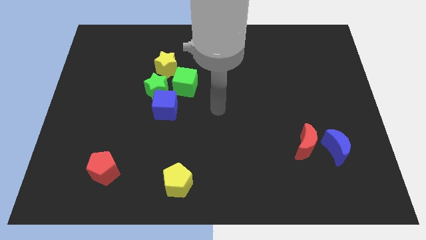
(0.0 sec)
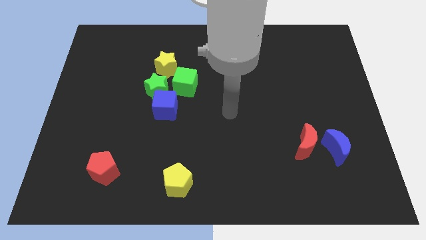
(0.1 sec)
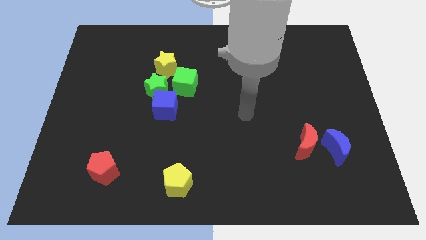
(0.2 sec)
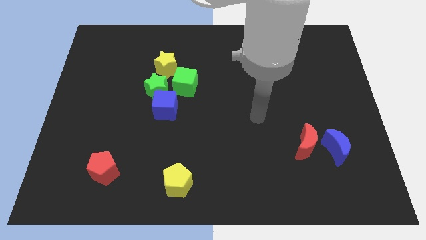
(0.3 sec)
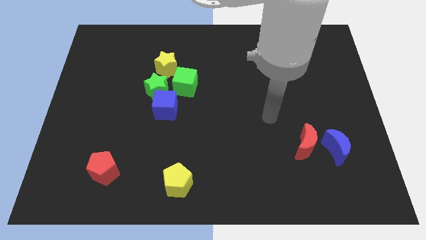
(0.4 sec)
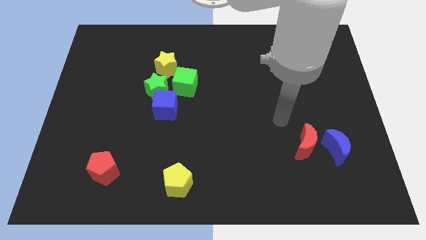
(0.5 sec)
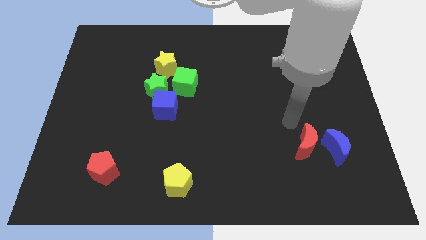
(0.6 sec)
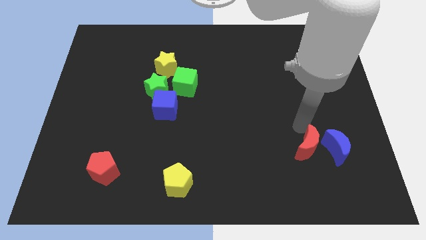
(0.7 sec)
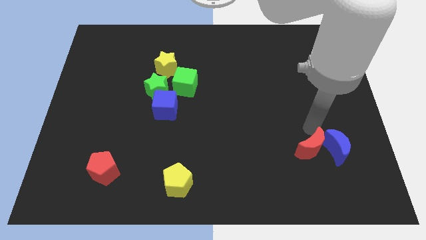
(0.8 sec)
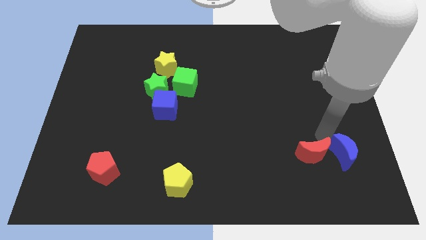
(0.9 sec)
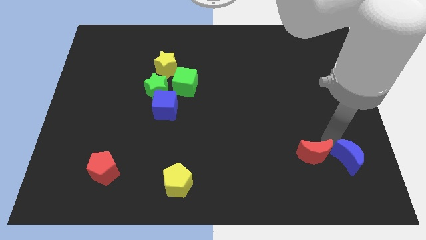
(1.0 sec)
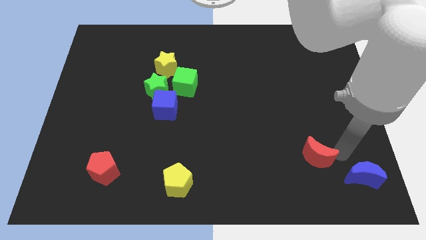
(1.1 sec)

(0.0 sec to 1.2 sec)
move the red moon away from the blue moon

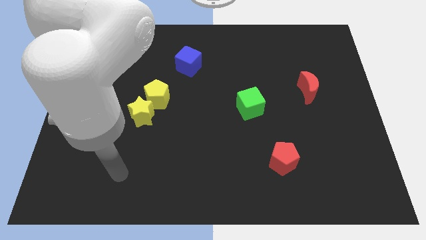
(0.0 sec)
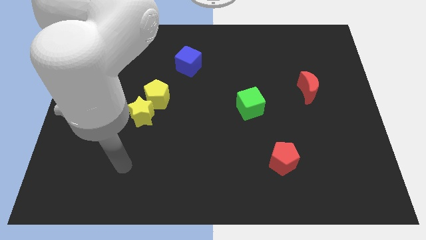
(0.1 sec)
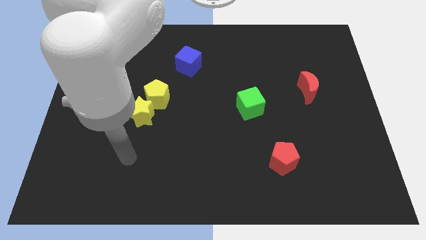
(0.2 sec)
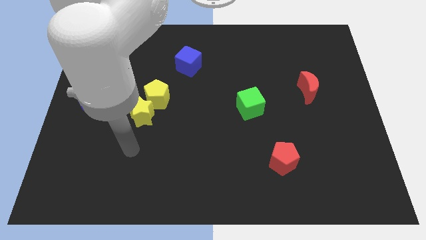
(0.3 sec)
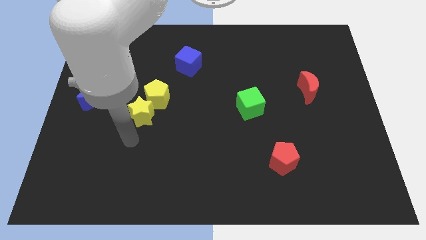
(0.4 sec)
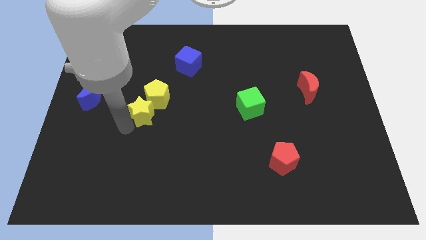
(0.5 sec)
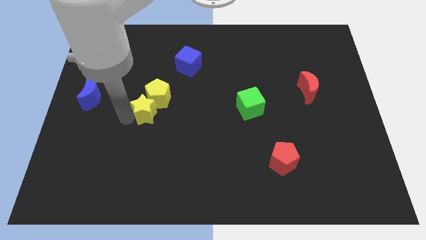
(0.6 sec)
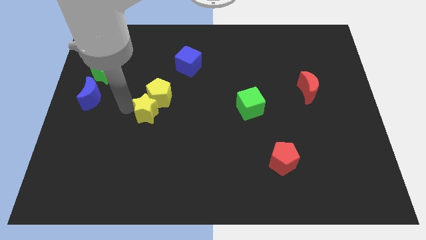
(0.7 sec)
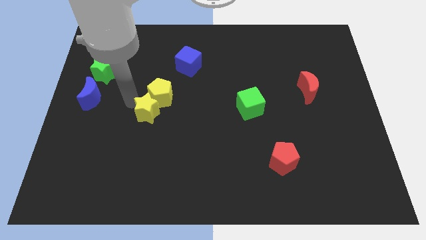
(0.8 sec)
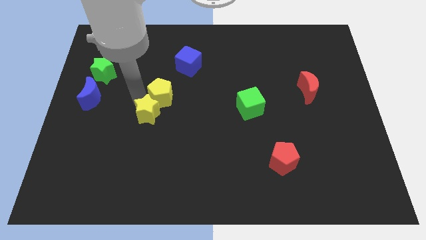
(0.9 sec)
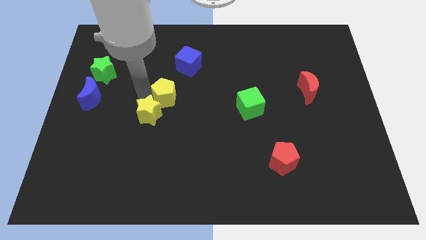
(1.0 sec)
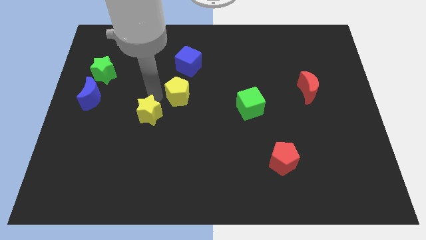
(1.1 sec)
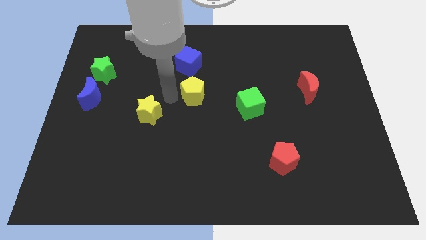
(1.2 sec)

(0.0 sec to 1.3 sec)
pull the yellow star apart from the yellow pentagon

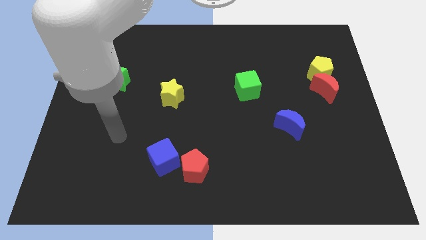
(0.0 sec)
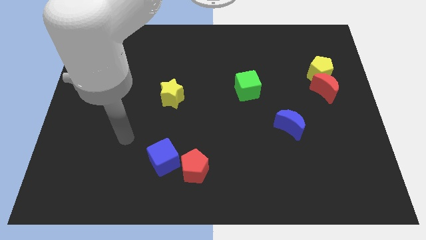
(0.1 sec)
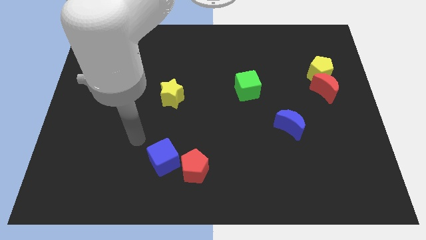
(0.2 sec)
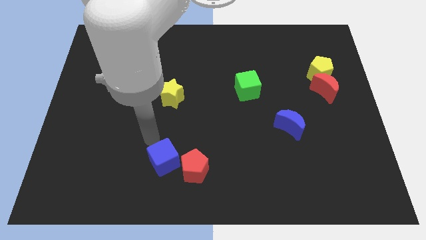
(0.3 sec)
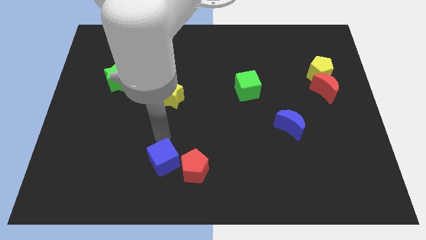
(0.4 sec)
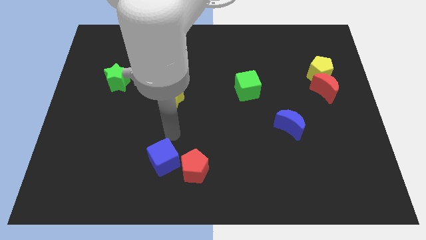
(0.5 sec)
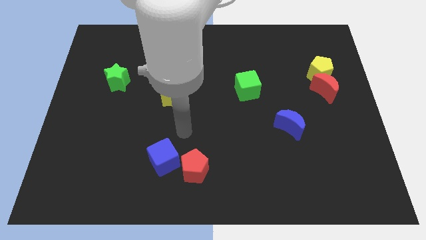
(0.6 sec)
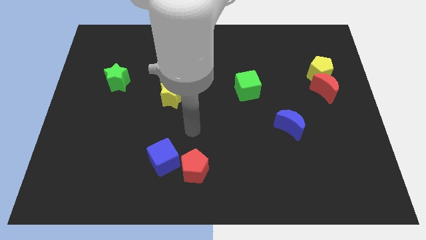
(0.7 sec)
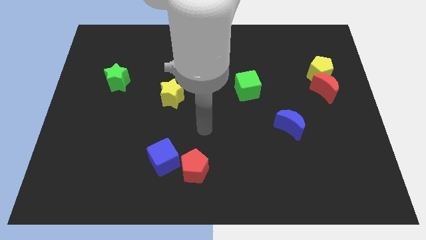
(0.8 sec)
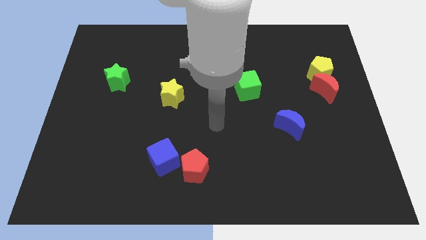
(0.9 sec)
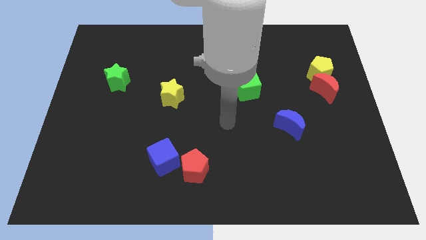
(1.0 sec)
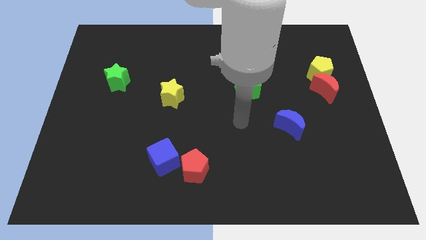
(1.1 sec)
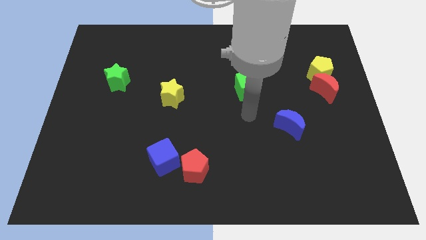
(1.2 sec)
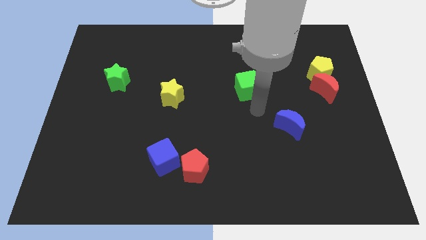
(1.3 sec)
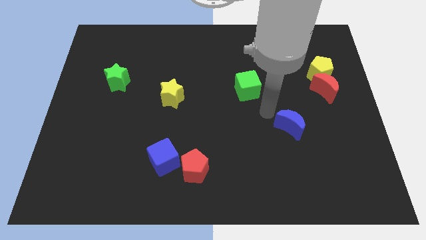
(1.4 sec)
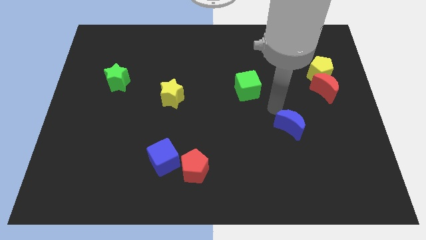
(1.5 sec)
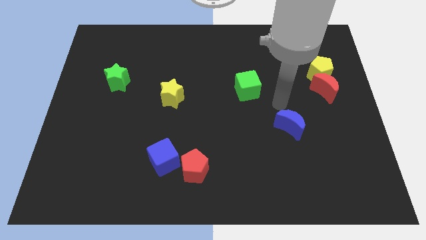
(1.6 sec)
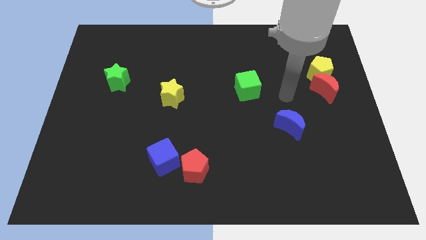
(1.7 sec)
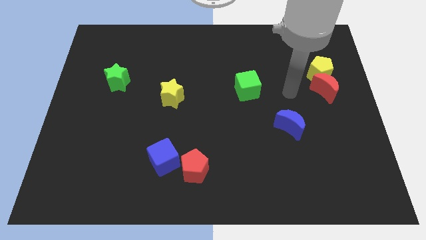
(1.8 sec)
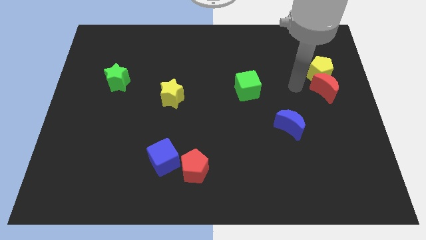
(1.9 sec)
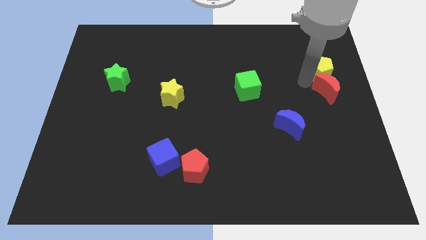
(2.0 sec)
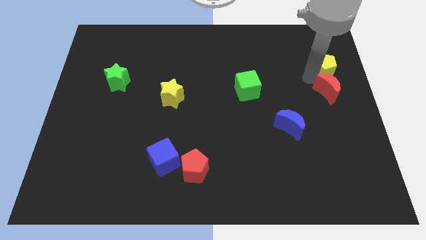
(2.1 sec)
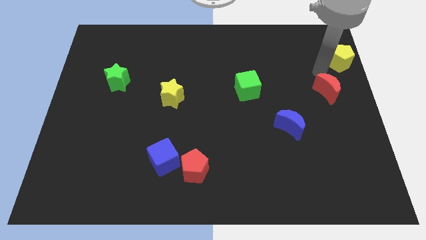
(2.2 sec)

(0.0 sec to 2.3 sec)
pull the red moon apart from the yellow pentagon

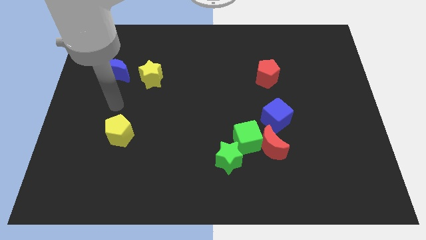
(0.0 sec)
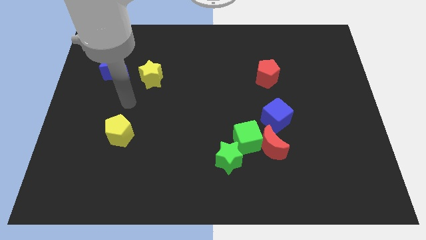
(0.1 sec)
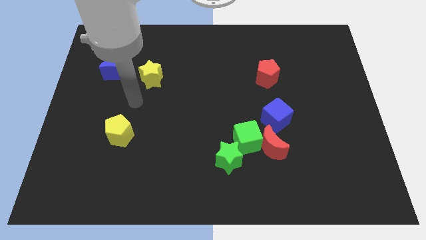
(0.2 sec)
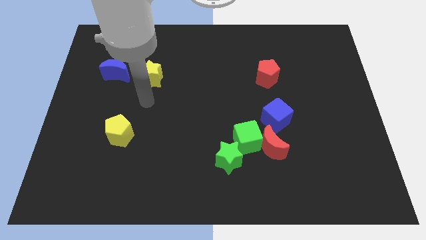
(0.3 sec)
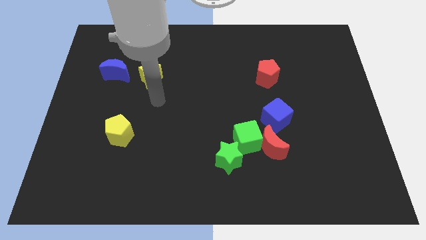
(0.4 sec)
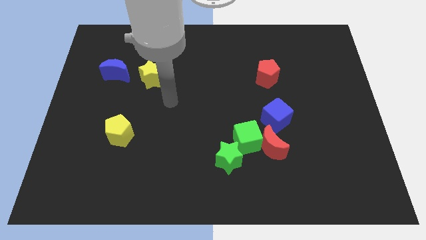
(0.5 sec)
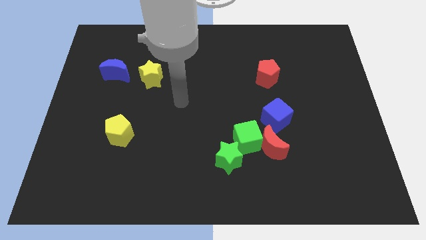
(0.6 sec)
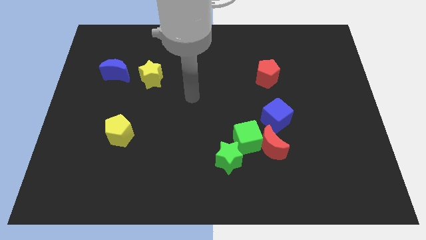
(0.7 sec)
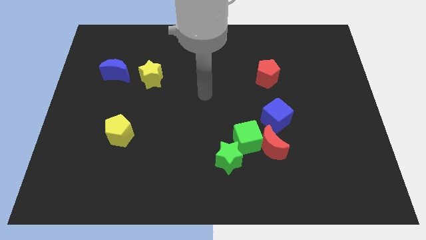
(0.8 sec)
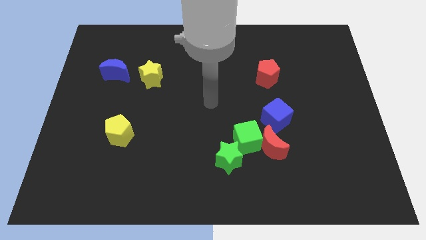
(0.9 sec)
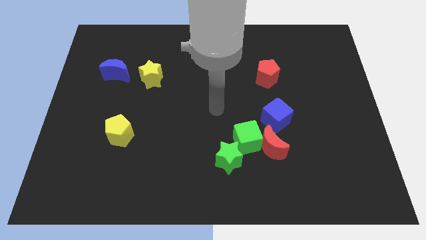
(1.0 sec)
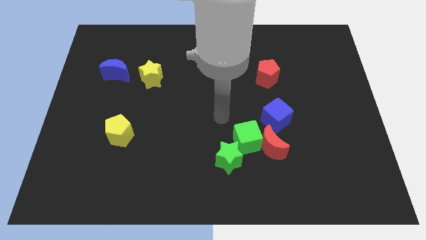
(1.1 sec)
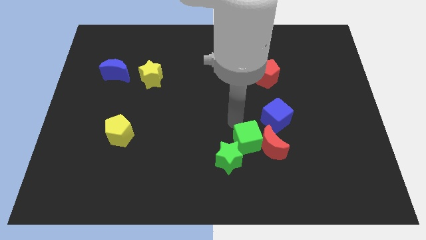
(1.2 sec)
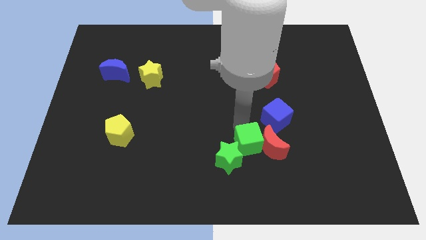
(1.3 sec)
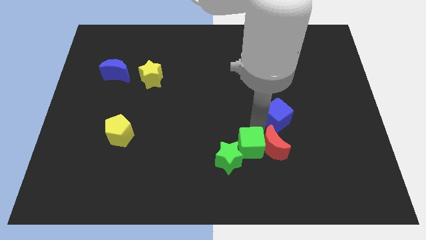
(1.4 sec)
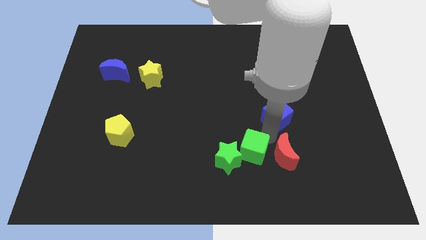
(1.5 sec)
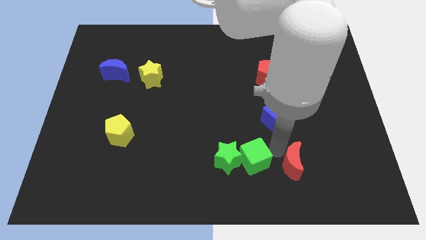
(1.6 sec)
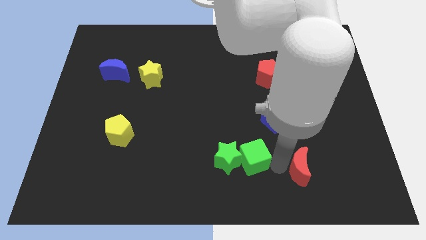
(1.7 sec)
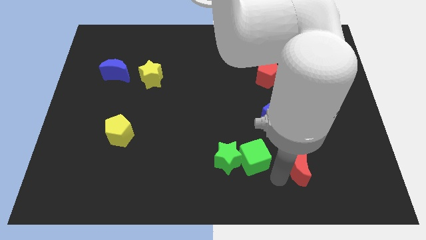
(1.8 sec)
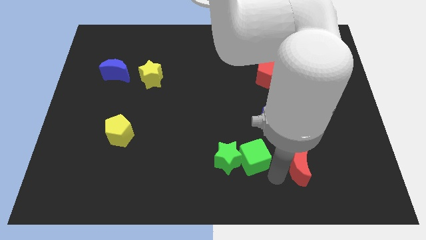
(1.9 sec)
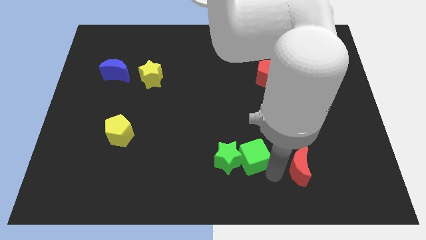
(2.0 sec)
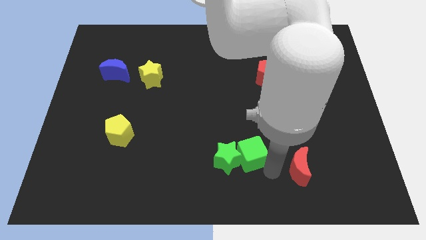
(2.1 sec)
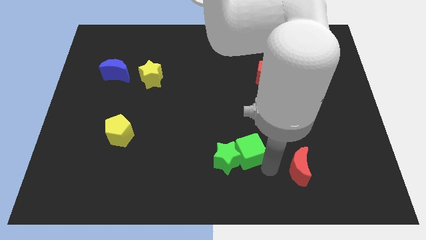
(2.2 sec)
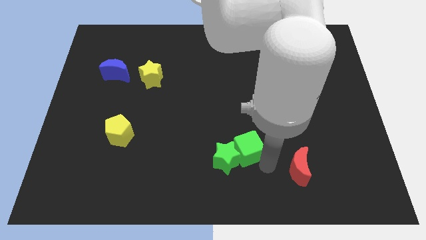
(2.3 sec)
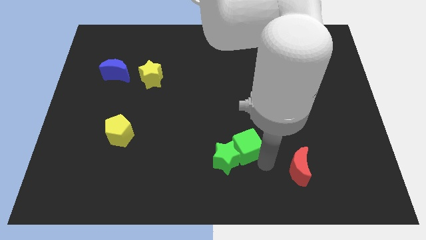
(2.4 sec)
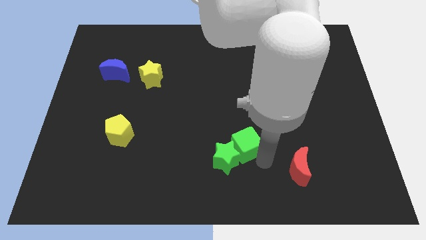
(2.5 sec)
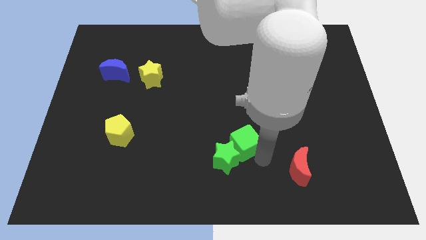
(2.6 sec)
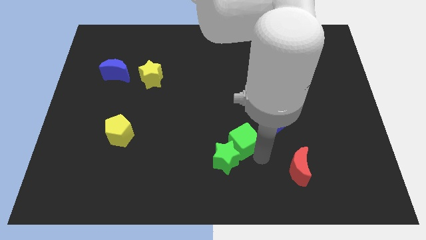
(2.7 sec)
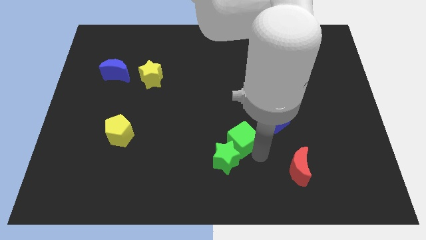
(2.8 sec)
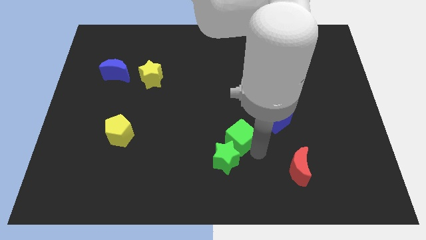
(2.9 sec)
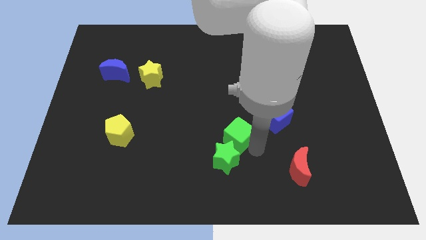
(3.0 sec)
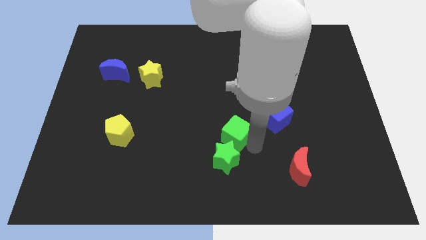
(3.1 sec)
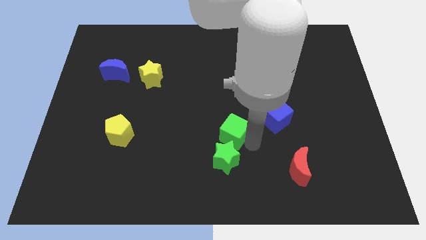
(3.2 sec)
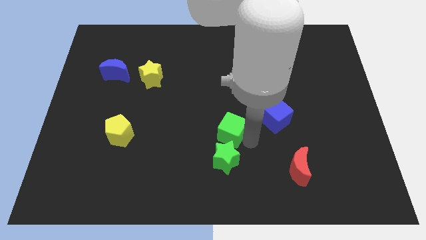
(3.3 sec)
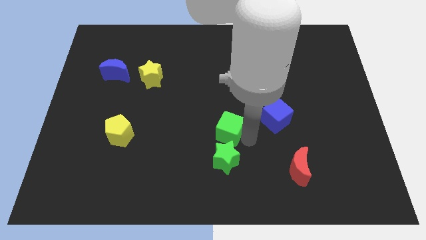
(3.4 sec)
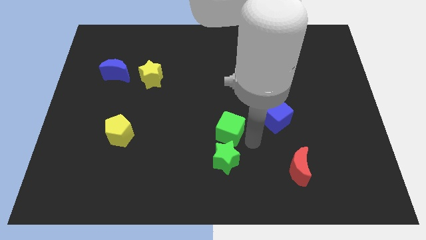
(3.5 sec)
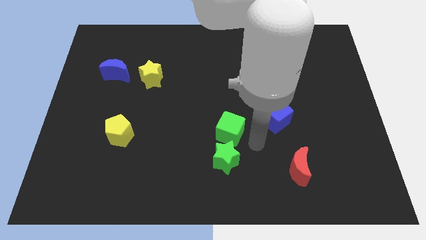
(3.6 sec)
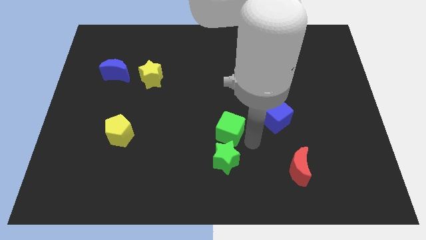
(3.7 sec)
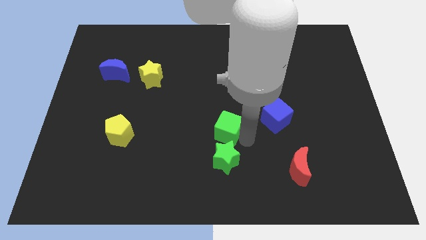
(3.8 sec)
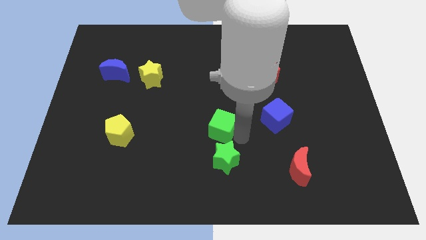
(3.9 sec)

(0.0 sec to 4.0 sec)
separate the green cube from the group

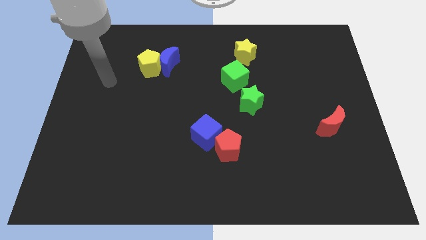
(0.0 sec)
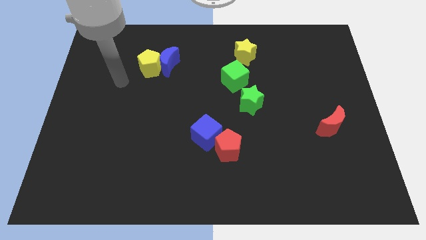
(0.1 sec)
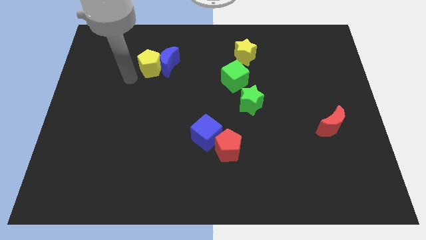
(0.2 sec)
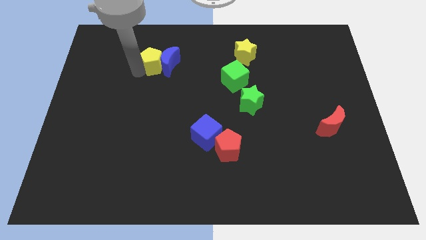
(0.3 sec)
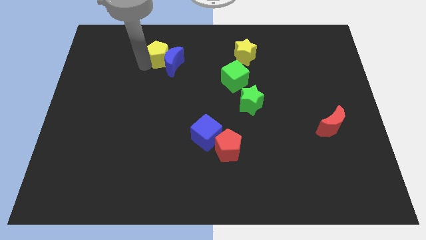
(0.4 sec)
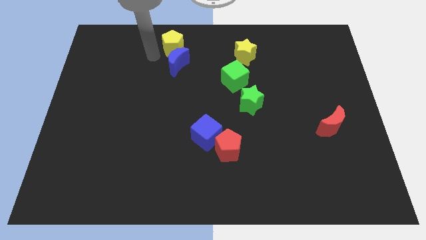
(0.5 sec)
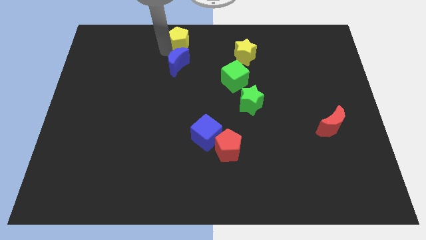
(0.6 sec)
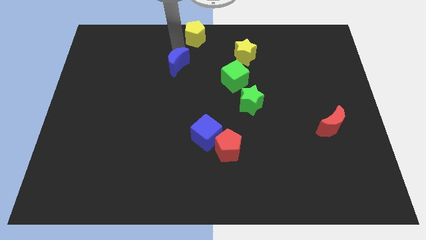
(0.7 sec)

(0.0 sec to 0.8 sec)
pull the blue moon apart from the yellow pentagon
